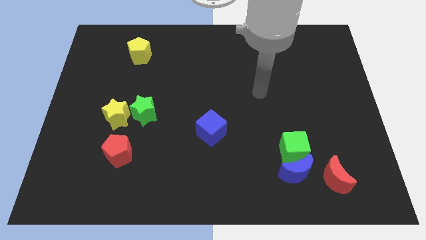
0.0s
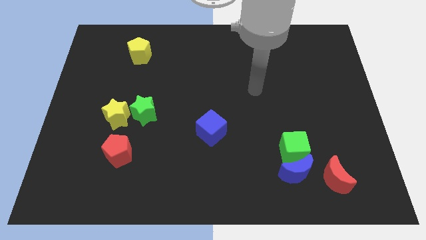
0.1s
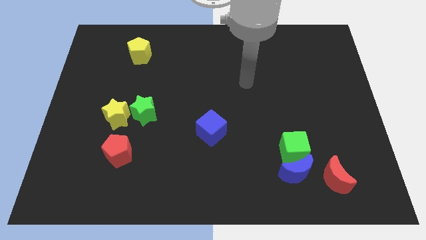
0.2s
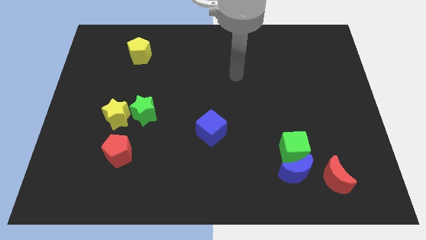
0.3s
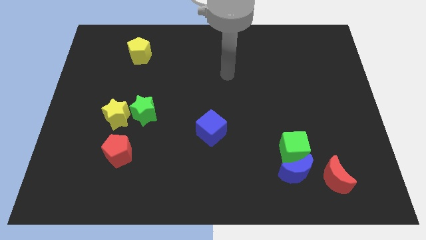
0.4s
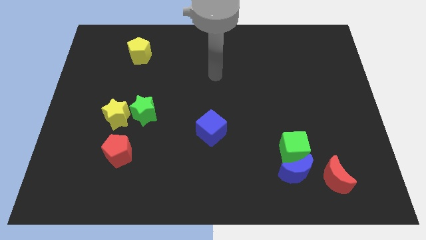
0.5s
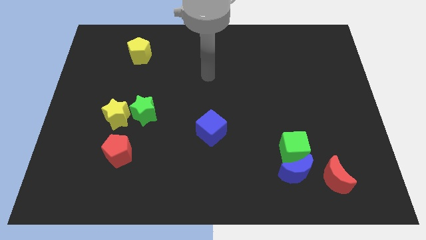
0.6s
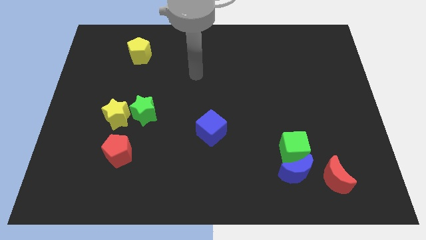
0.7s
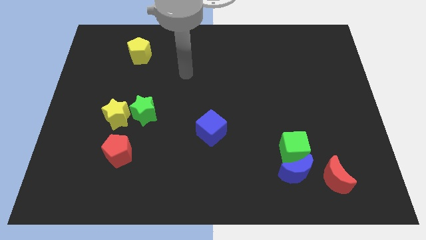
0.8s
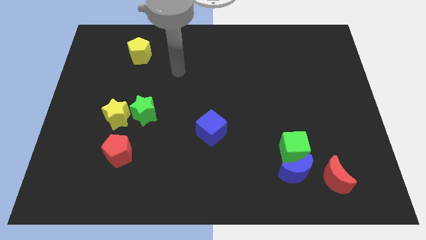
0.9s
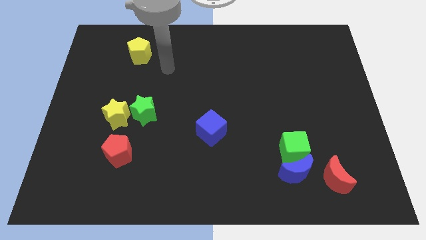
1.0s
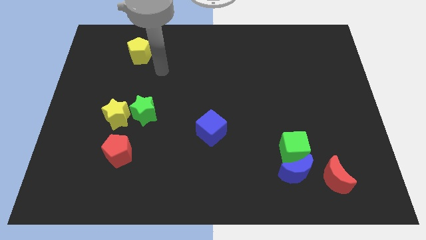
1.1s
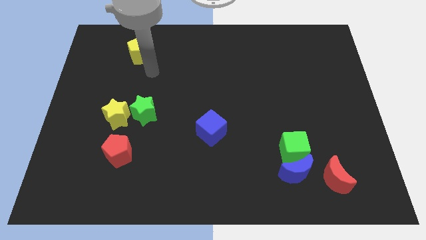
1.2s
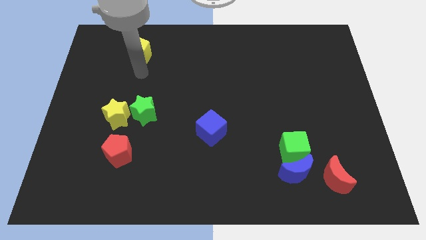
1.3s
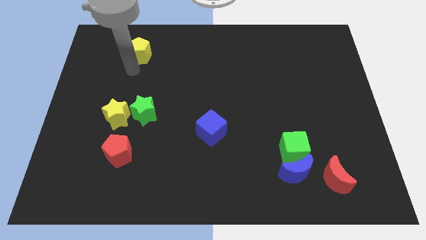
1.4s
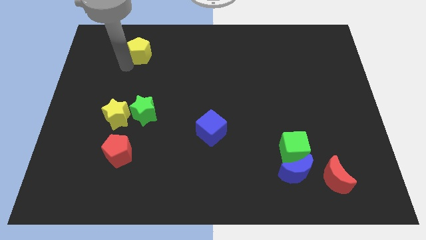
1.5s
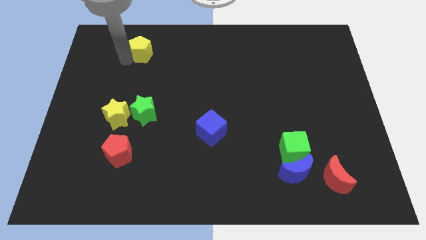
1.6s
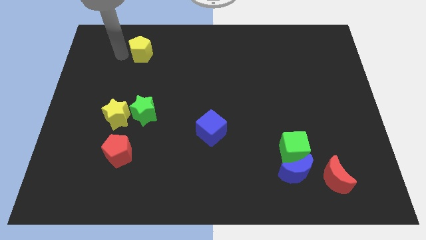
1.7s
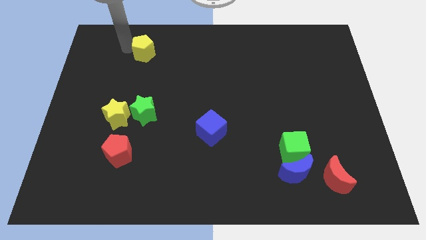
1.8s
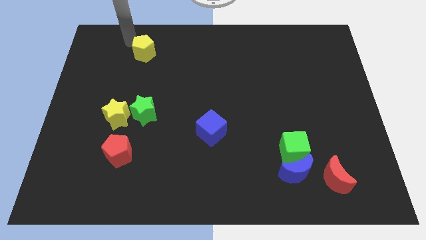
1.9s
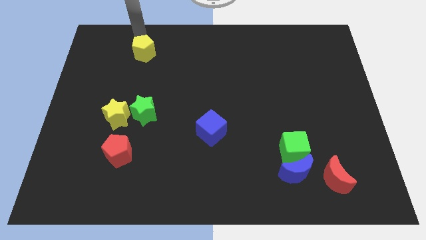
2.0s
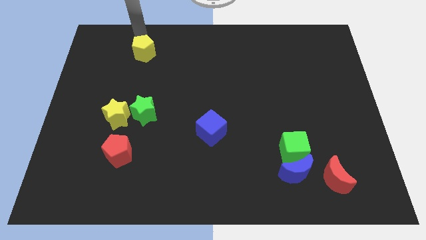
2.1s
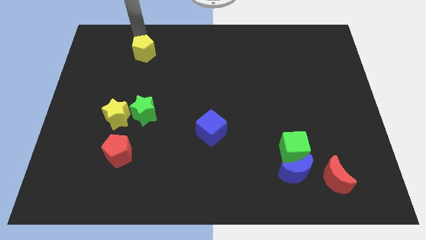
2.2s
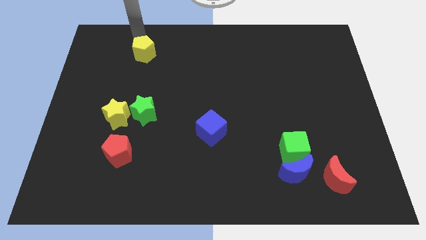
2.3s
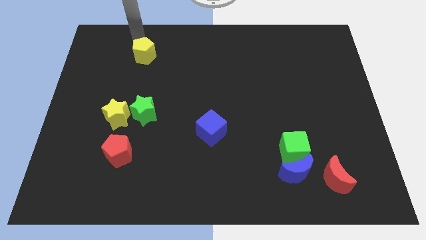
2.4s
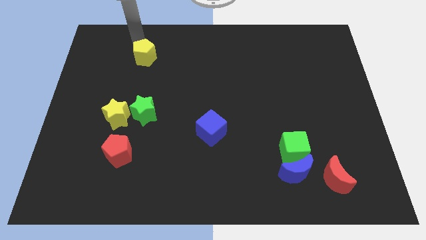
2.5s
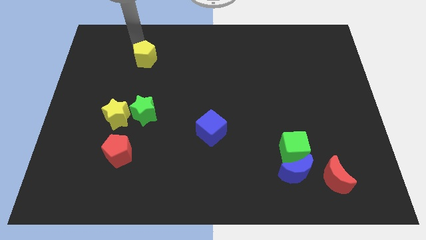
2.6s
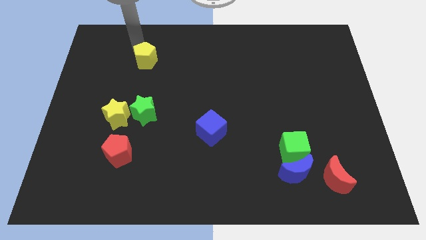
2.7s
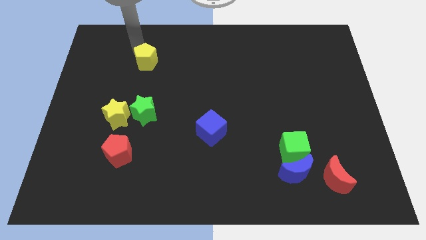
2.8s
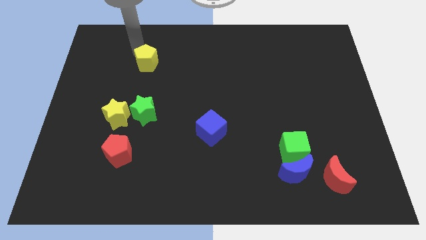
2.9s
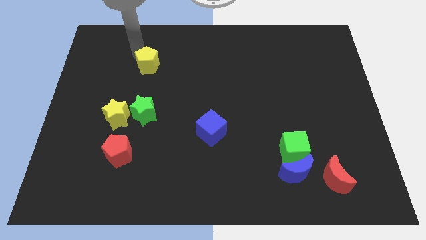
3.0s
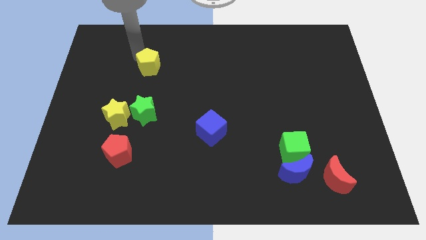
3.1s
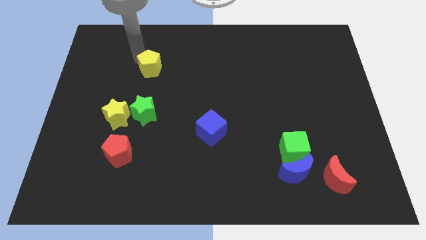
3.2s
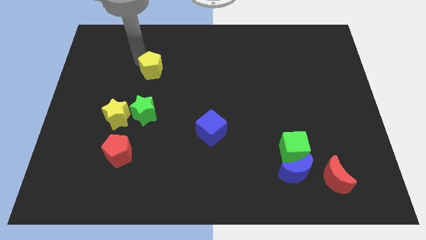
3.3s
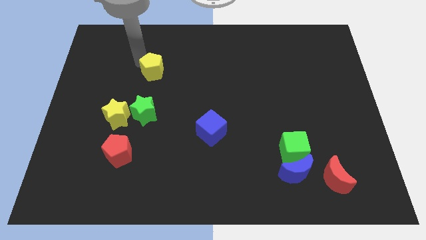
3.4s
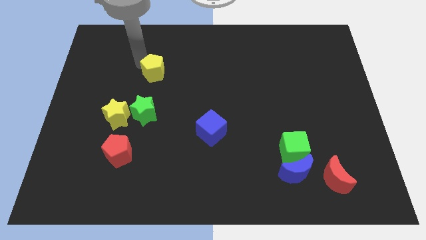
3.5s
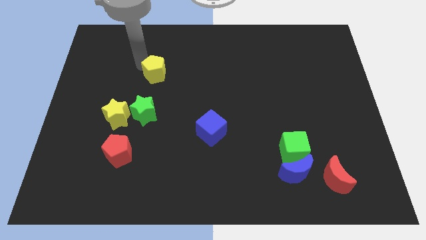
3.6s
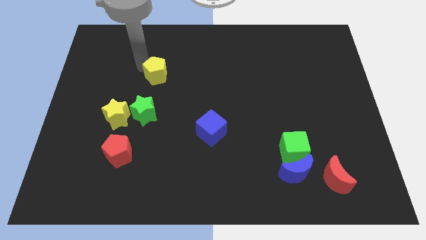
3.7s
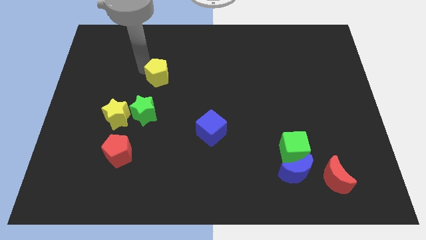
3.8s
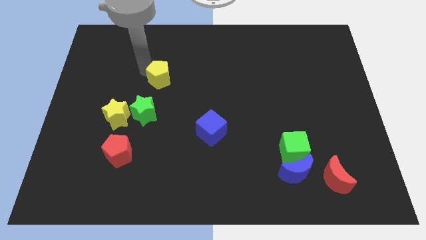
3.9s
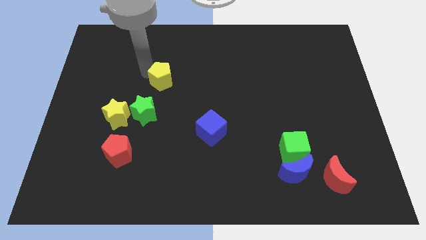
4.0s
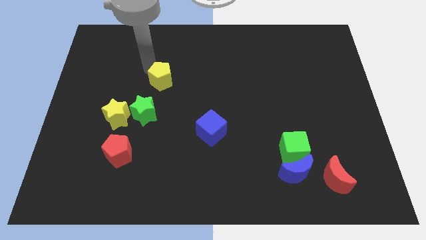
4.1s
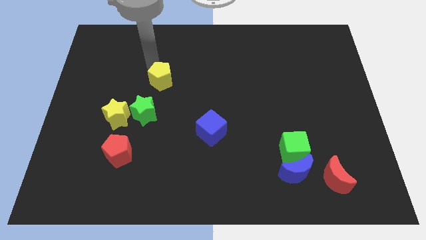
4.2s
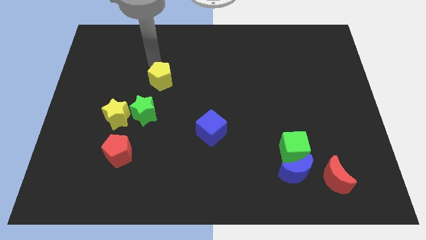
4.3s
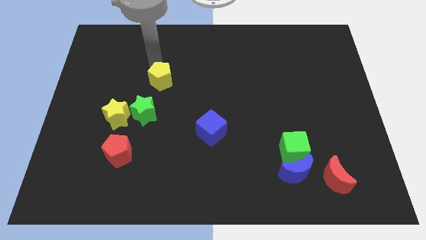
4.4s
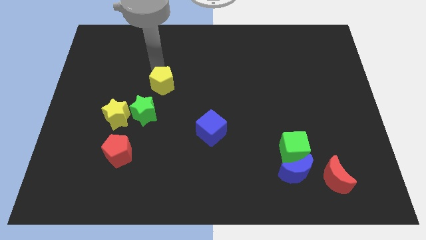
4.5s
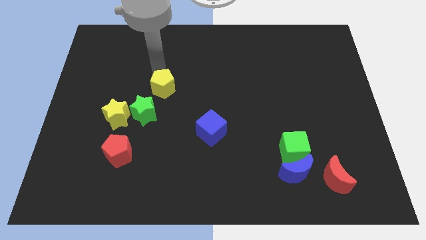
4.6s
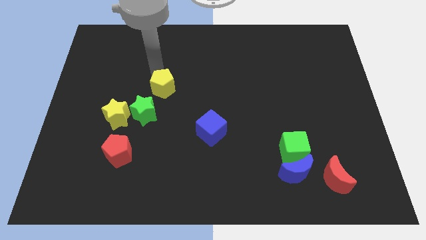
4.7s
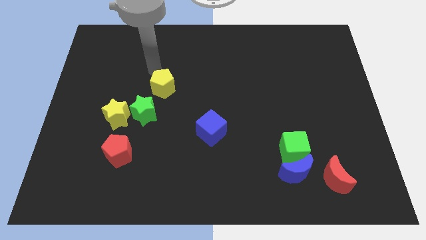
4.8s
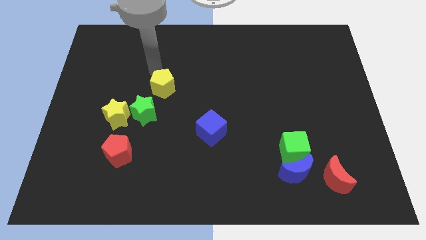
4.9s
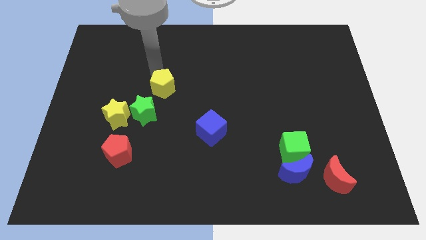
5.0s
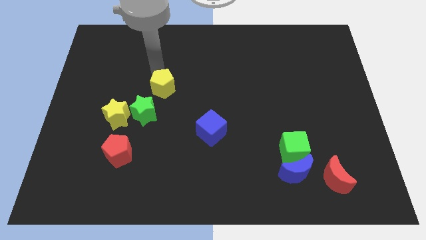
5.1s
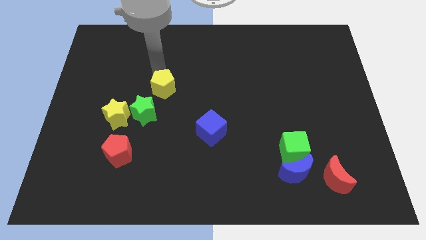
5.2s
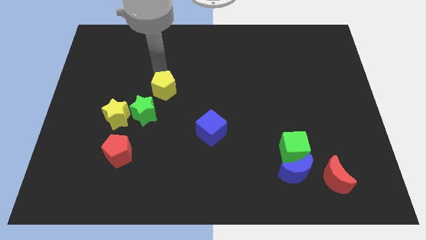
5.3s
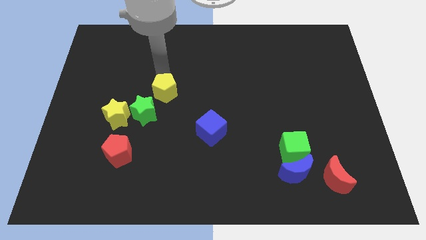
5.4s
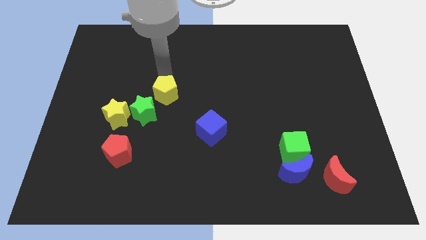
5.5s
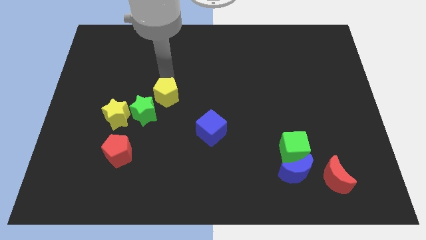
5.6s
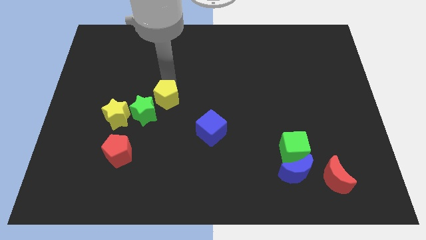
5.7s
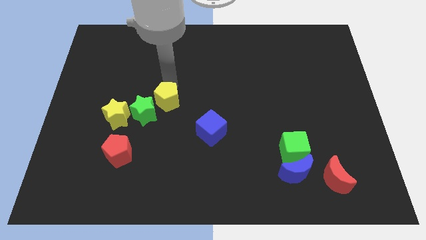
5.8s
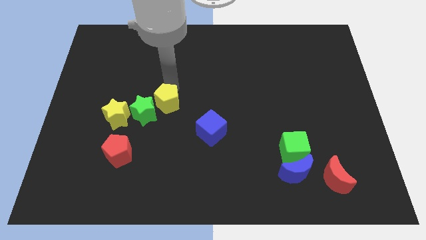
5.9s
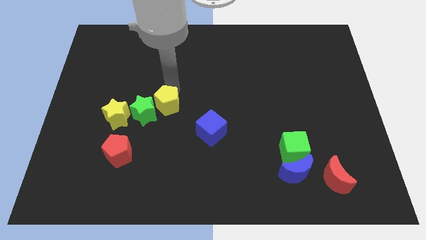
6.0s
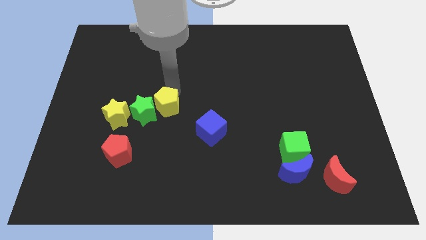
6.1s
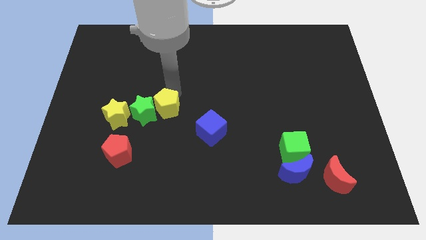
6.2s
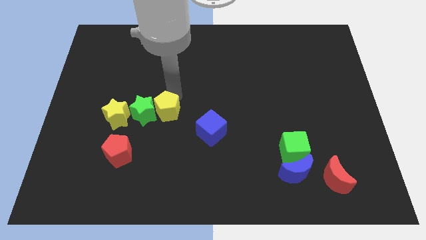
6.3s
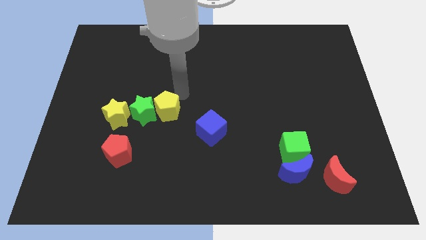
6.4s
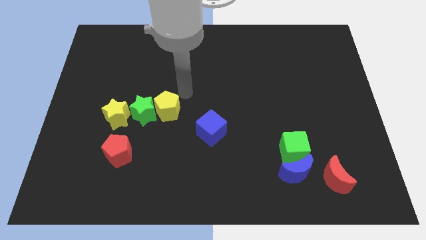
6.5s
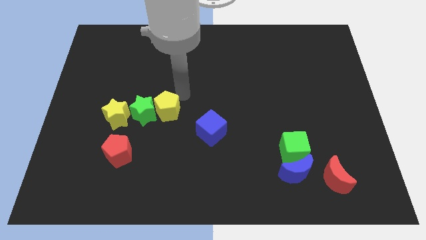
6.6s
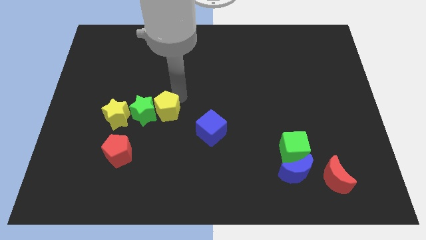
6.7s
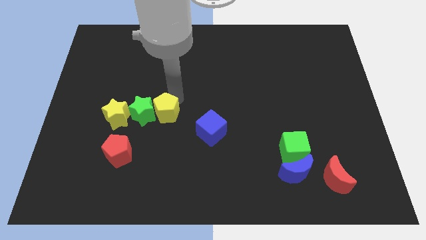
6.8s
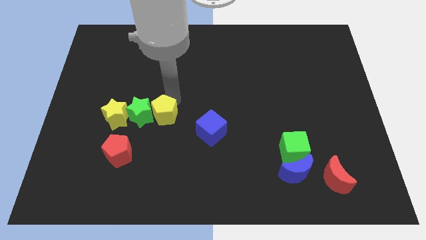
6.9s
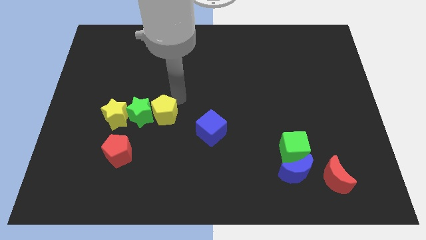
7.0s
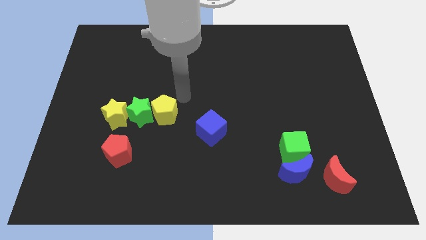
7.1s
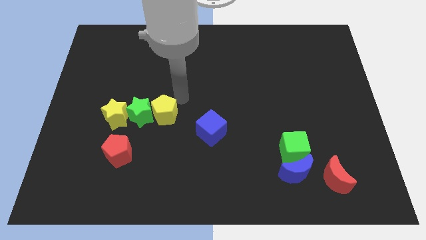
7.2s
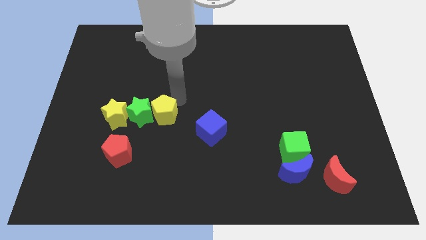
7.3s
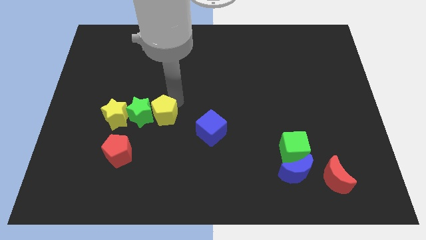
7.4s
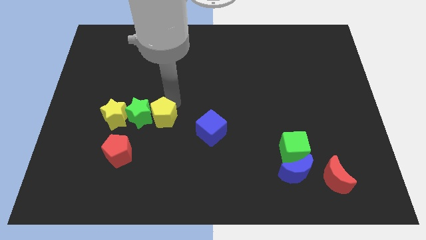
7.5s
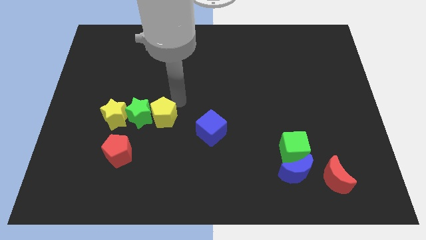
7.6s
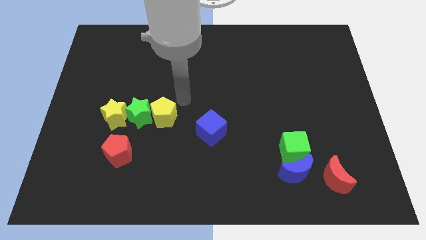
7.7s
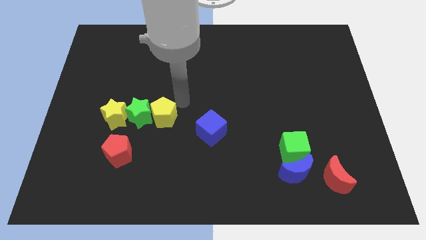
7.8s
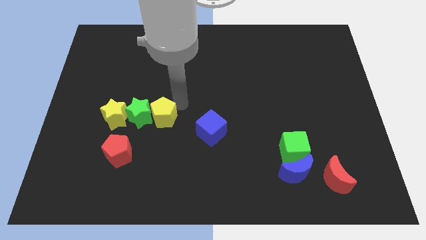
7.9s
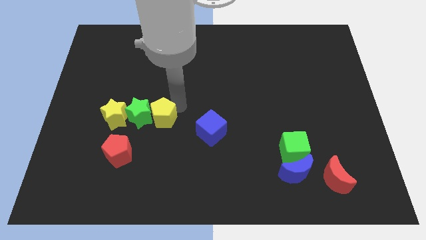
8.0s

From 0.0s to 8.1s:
put the yellow pentagon diagonally up and to the right of the red pentagon
